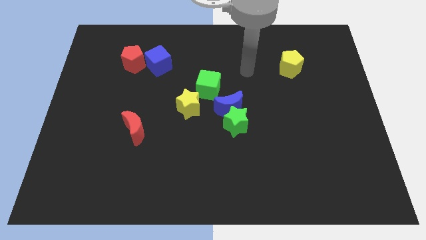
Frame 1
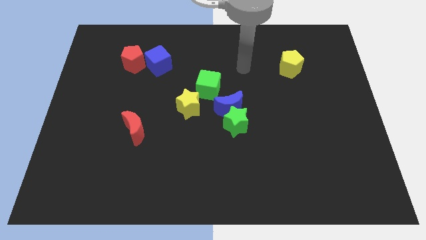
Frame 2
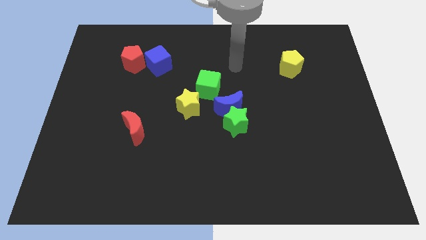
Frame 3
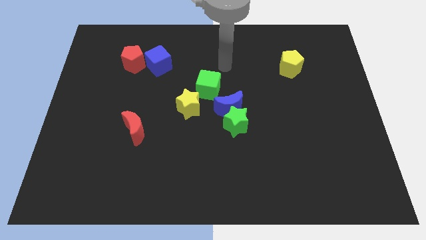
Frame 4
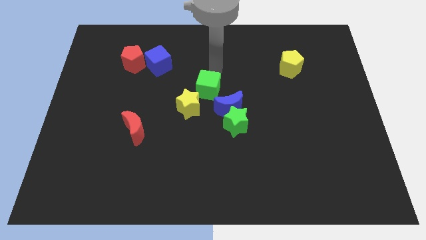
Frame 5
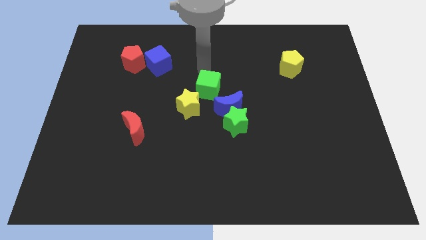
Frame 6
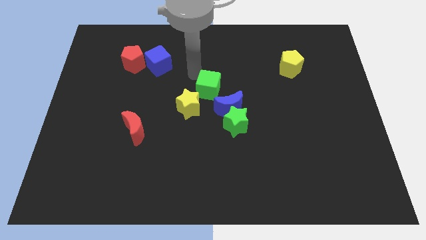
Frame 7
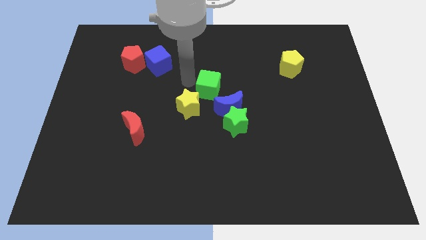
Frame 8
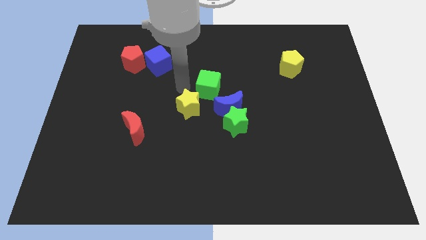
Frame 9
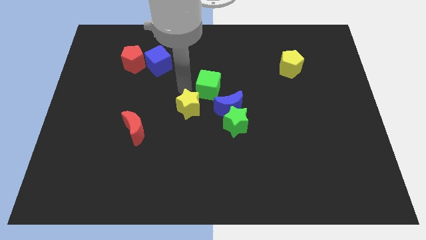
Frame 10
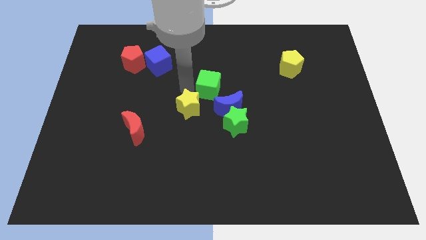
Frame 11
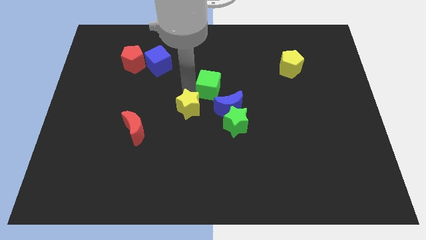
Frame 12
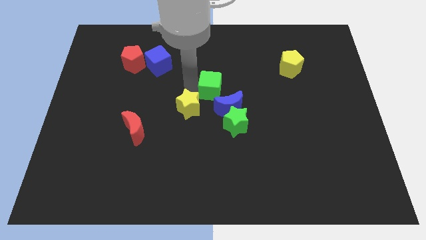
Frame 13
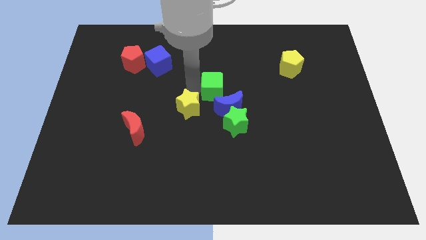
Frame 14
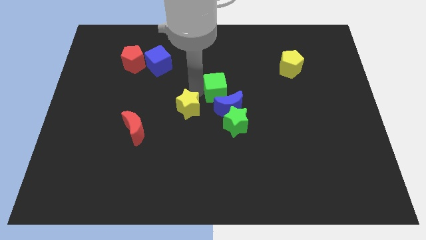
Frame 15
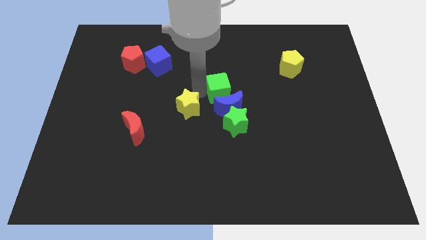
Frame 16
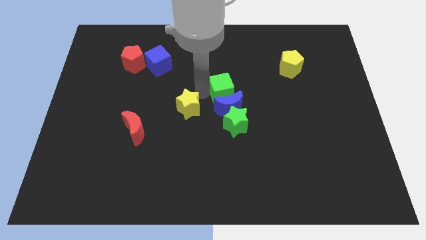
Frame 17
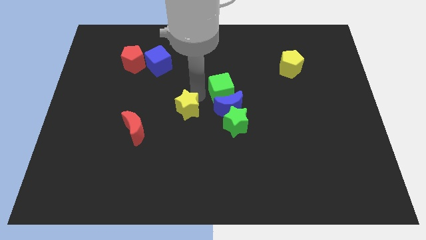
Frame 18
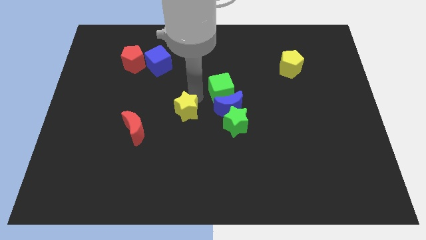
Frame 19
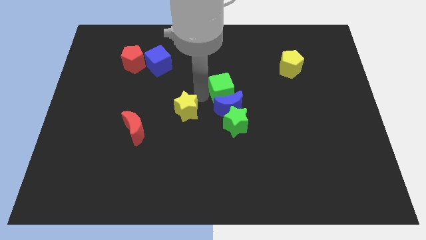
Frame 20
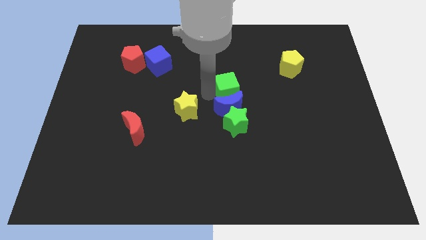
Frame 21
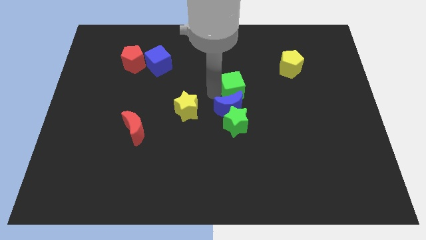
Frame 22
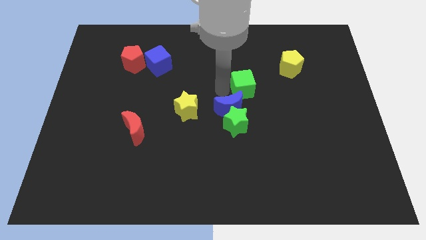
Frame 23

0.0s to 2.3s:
slide the green cube to the right a little

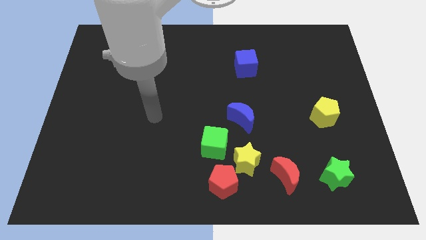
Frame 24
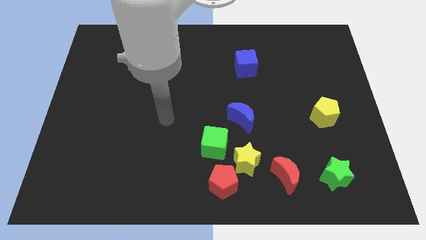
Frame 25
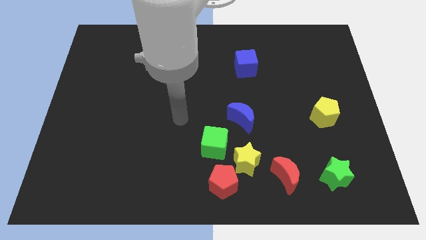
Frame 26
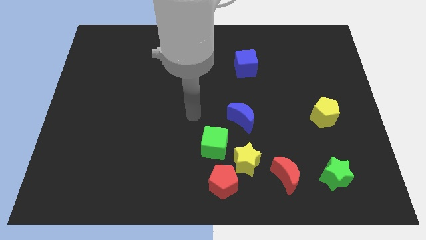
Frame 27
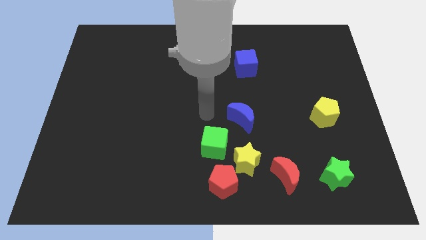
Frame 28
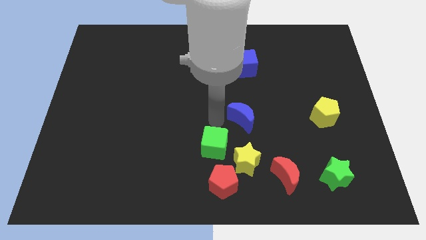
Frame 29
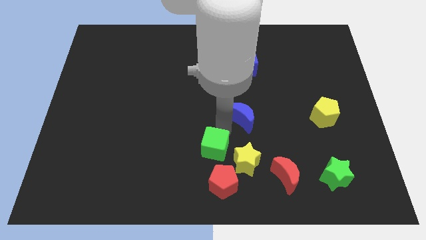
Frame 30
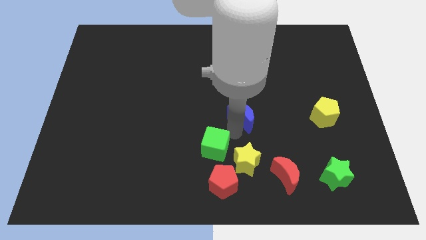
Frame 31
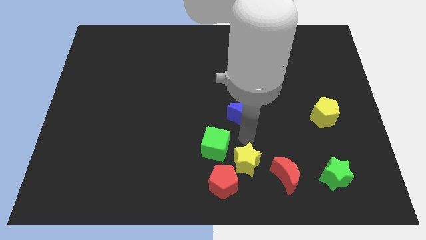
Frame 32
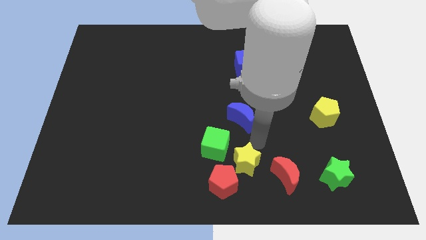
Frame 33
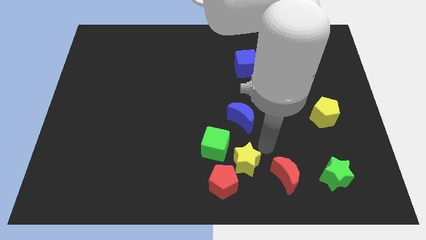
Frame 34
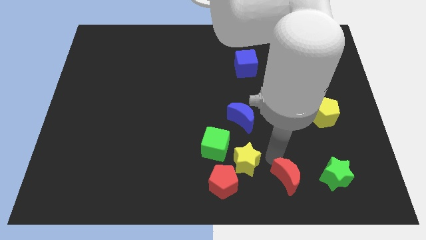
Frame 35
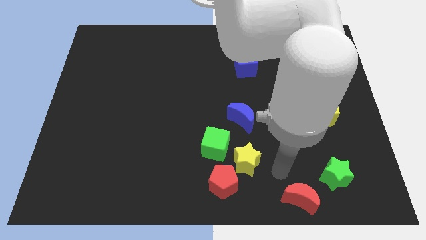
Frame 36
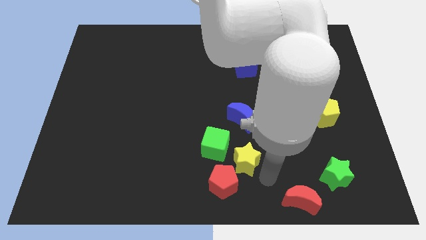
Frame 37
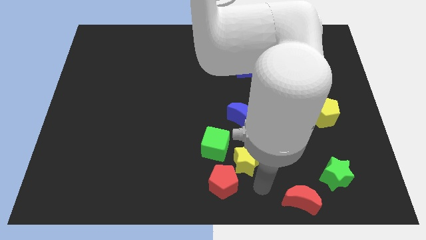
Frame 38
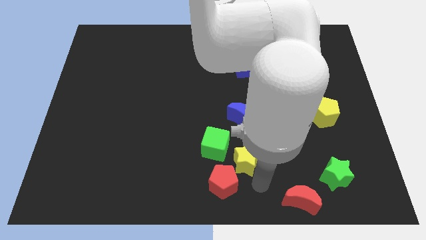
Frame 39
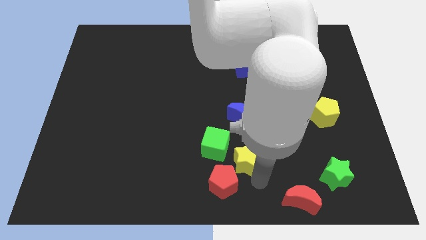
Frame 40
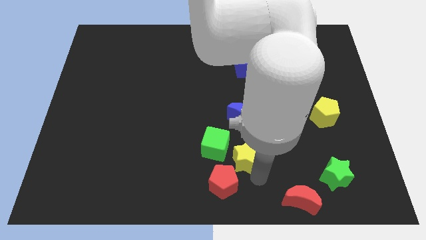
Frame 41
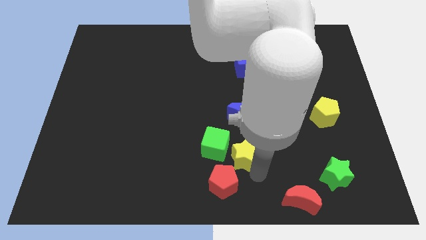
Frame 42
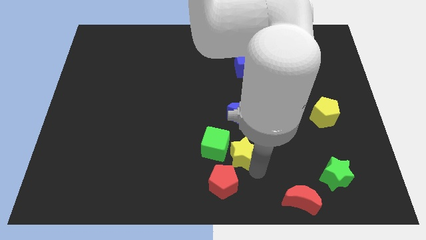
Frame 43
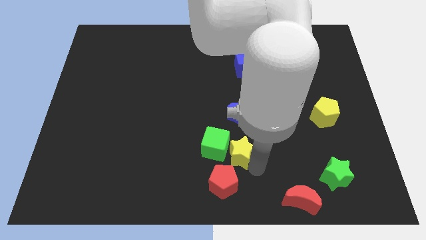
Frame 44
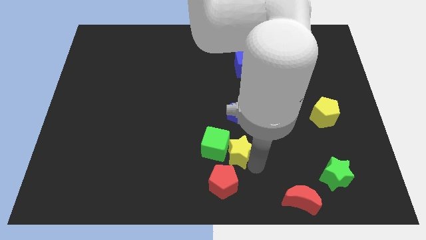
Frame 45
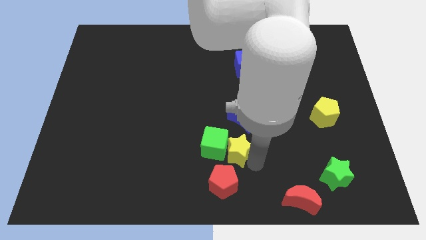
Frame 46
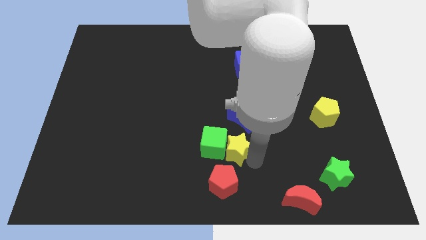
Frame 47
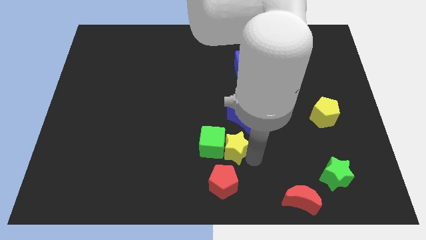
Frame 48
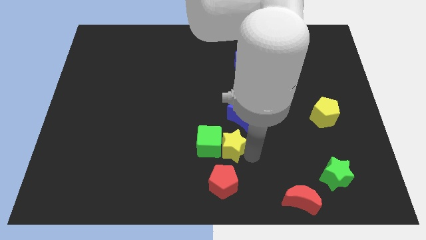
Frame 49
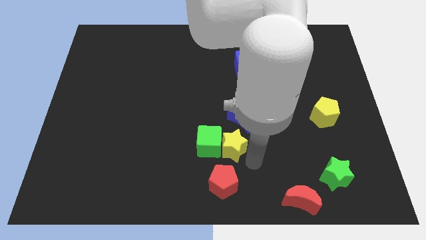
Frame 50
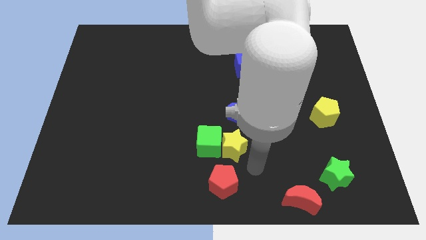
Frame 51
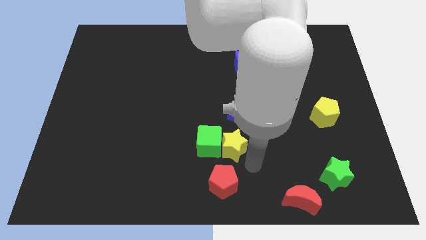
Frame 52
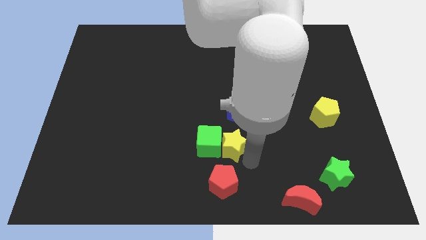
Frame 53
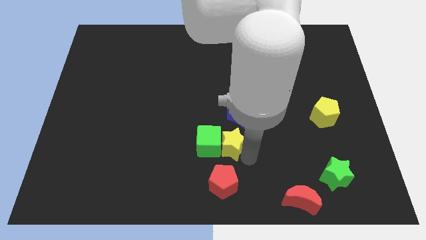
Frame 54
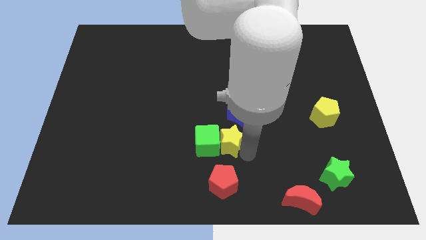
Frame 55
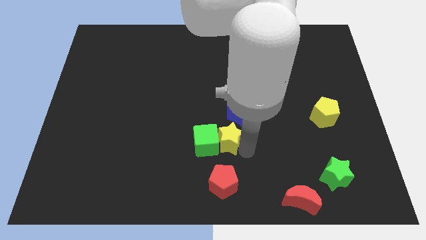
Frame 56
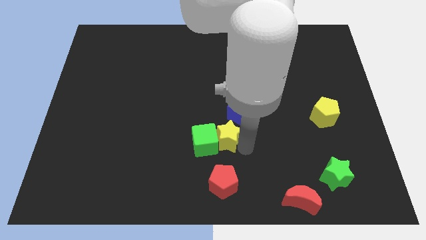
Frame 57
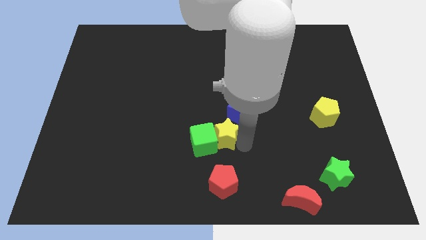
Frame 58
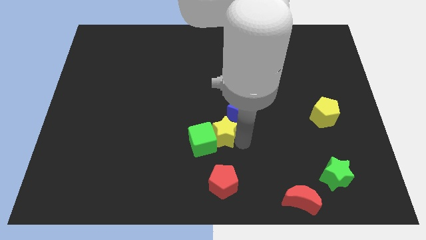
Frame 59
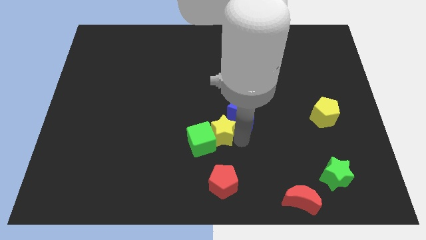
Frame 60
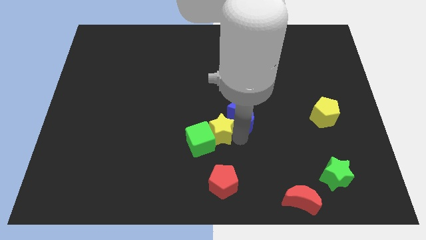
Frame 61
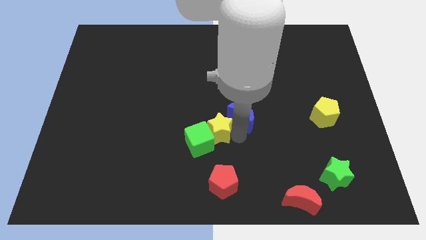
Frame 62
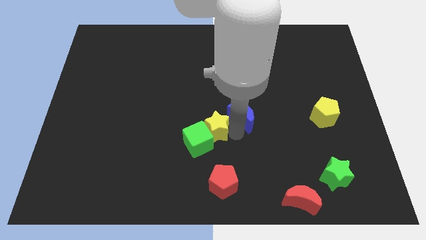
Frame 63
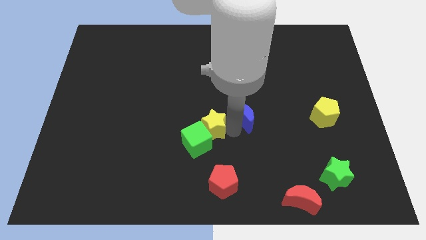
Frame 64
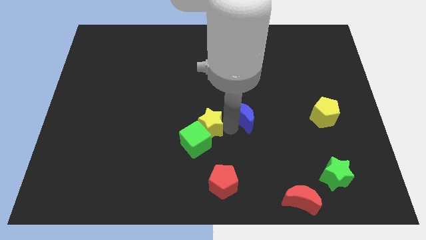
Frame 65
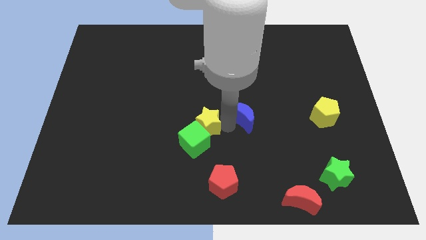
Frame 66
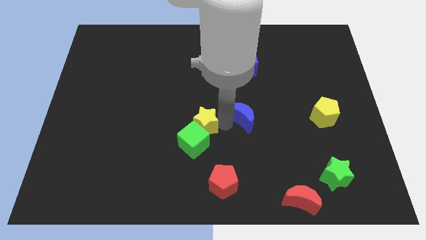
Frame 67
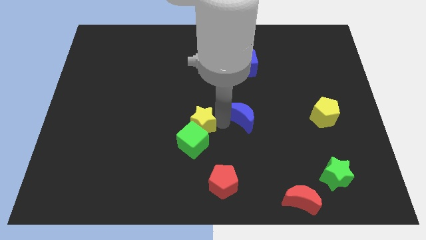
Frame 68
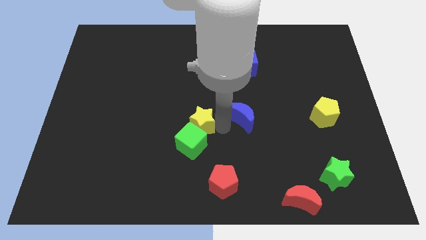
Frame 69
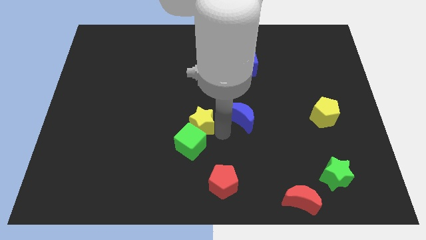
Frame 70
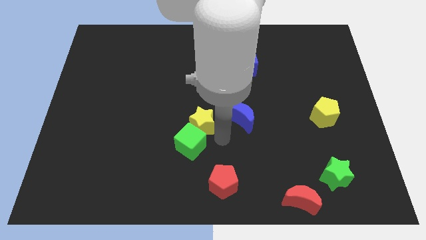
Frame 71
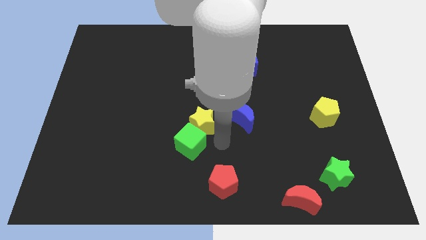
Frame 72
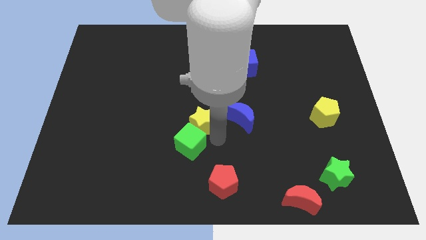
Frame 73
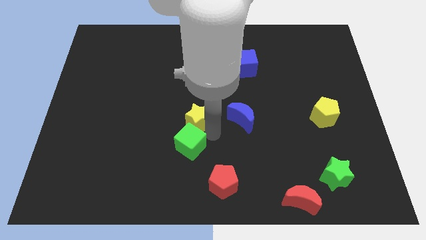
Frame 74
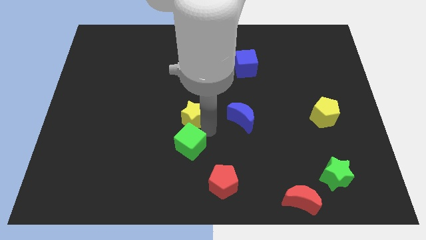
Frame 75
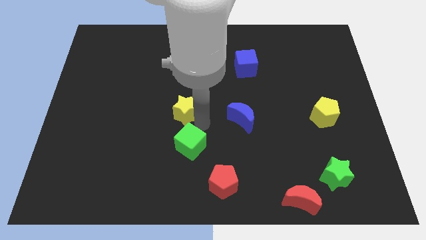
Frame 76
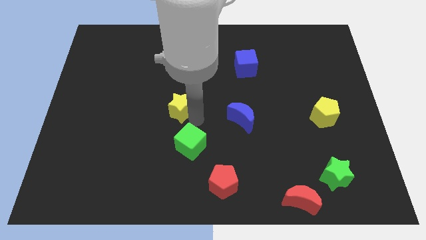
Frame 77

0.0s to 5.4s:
move the yellow star upwards and left diagonally
